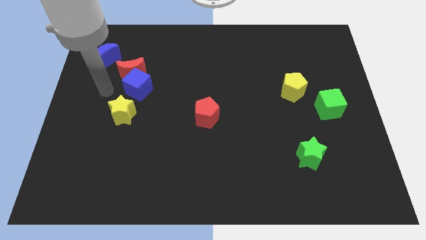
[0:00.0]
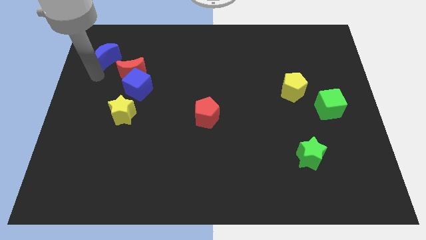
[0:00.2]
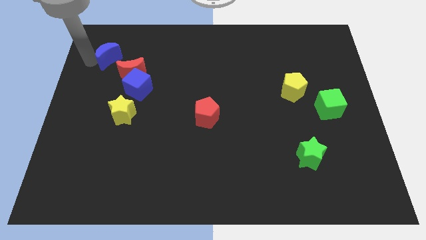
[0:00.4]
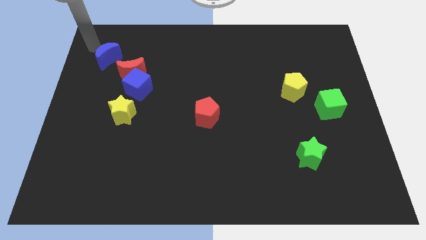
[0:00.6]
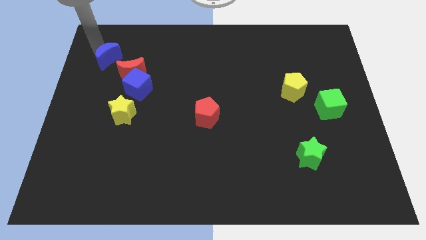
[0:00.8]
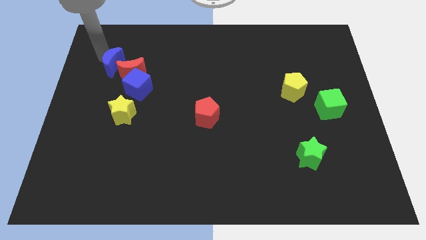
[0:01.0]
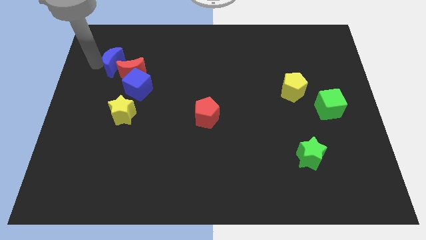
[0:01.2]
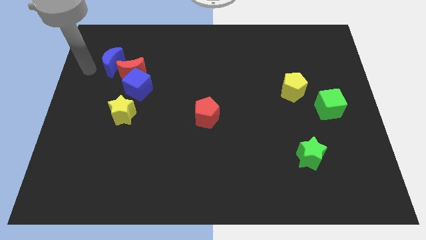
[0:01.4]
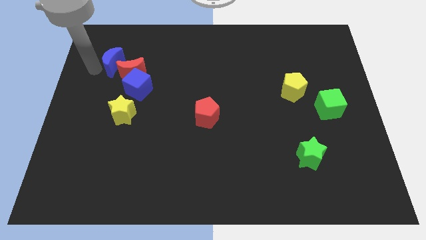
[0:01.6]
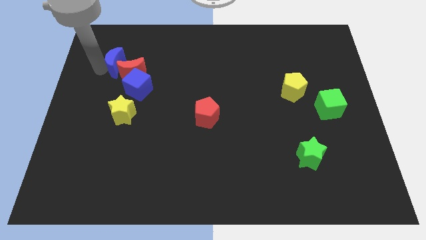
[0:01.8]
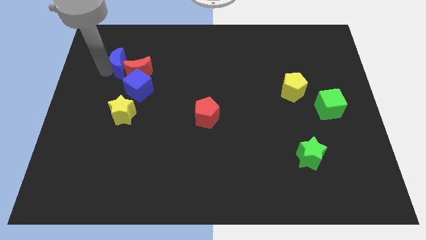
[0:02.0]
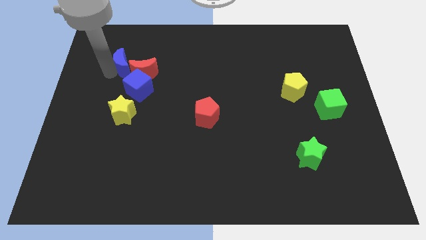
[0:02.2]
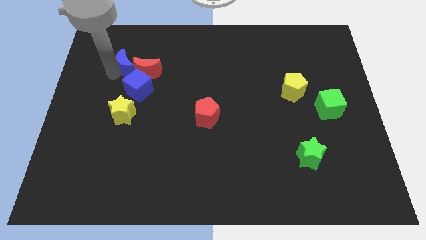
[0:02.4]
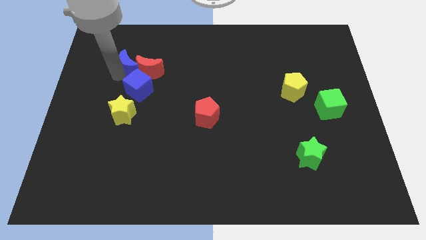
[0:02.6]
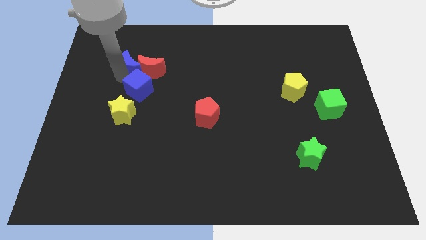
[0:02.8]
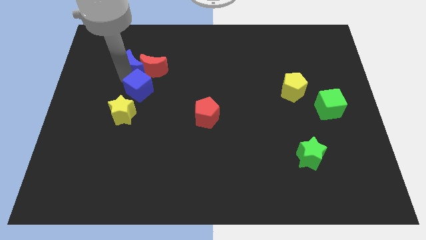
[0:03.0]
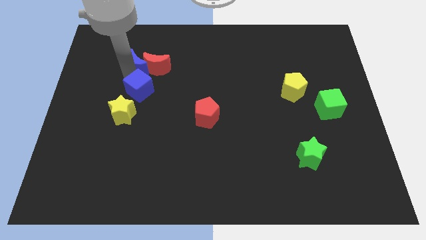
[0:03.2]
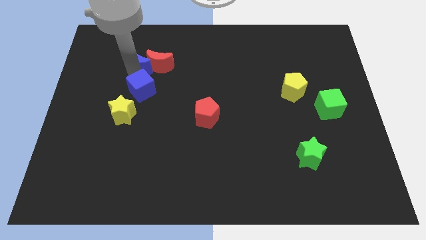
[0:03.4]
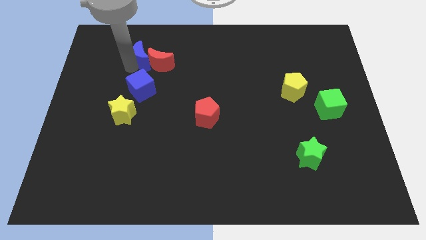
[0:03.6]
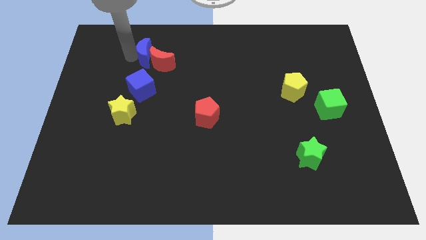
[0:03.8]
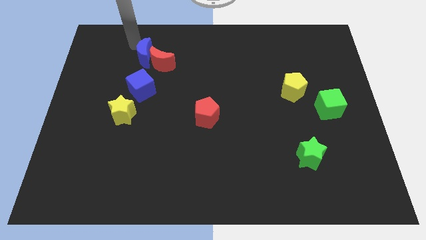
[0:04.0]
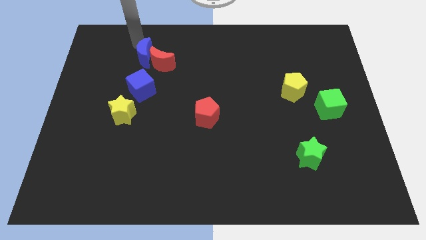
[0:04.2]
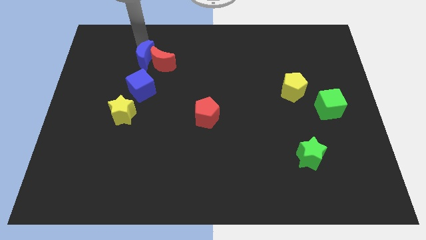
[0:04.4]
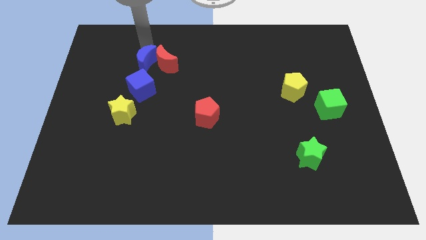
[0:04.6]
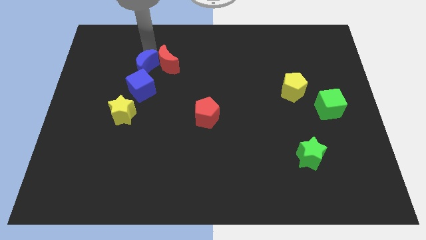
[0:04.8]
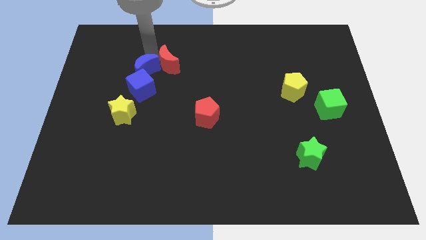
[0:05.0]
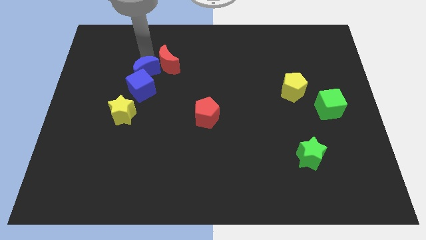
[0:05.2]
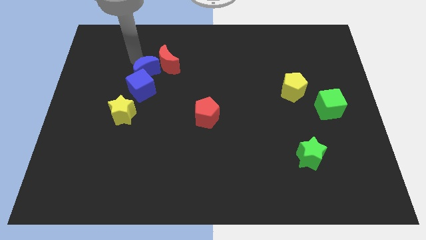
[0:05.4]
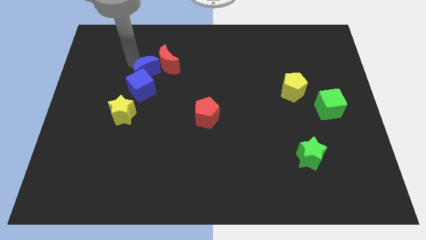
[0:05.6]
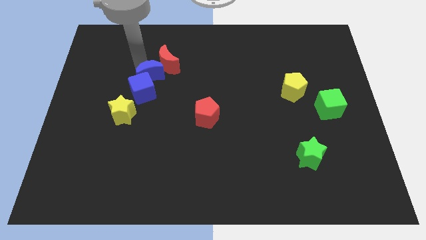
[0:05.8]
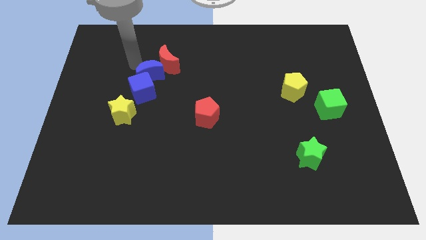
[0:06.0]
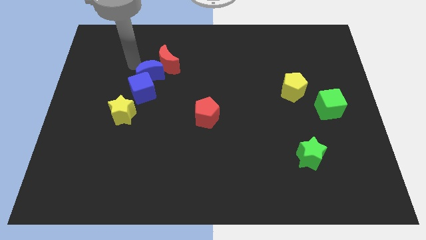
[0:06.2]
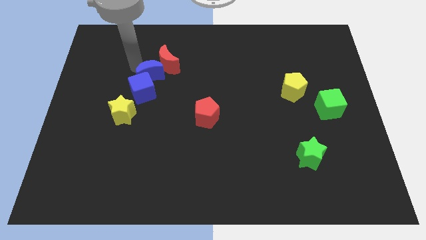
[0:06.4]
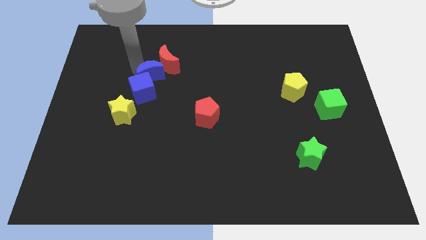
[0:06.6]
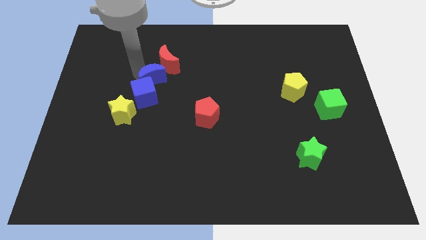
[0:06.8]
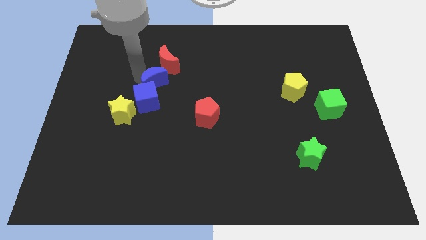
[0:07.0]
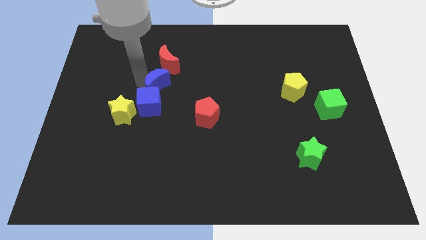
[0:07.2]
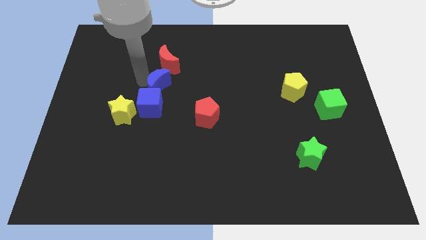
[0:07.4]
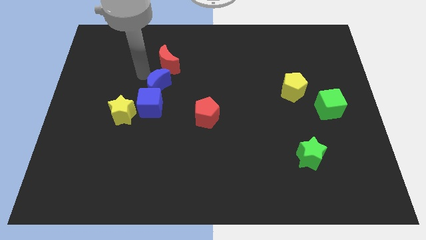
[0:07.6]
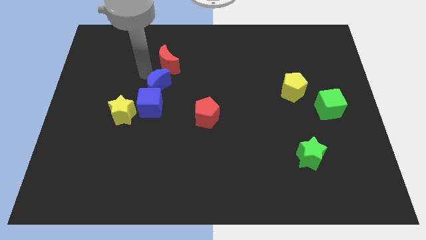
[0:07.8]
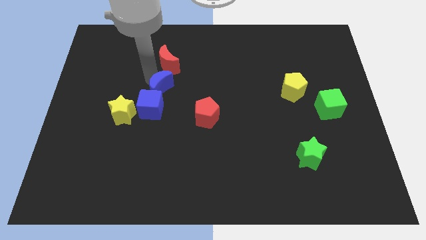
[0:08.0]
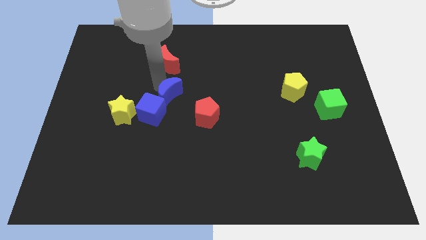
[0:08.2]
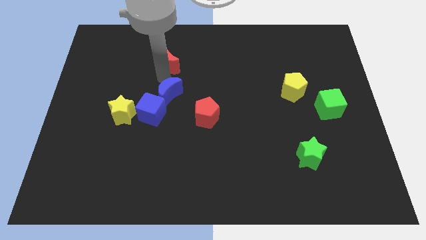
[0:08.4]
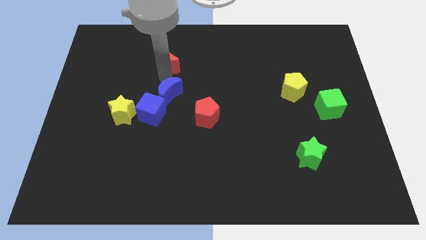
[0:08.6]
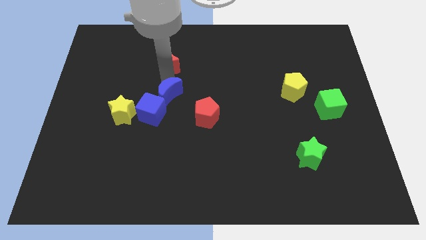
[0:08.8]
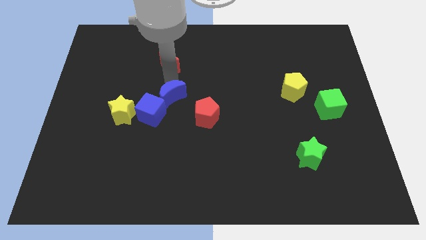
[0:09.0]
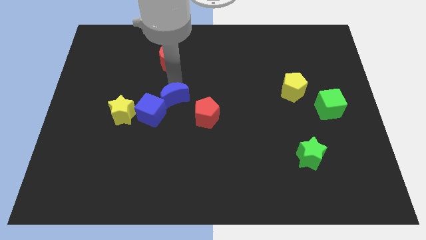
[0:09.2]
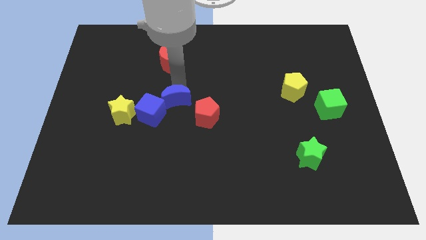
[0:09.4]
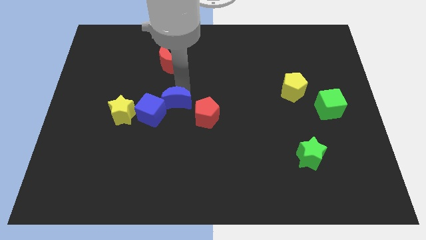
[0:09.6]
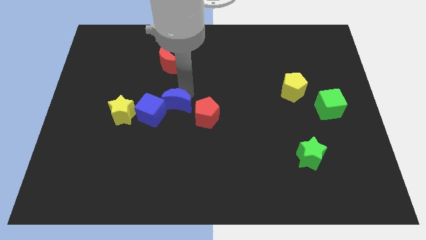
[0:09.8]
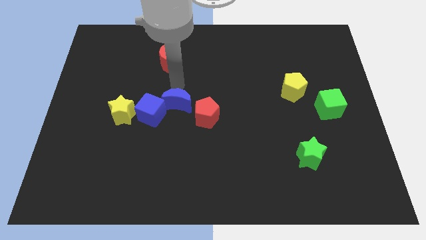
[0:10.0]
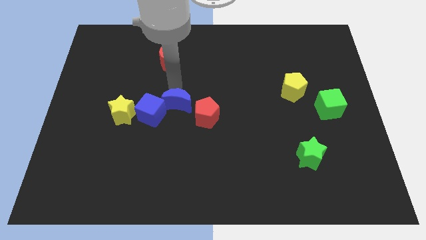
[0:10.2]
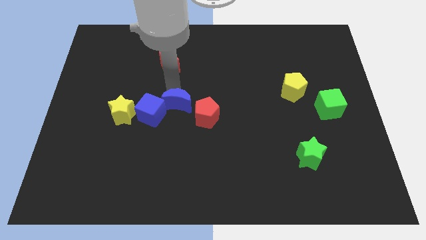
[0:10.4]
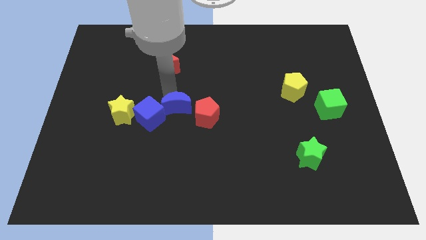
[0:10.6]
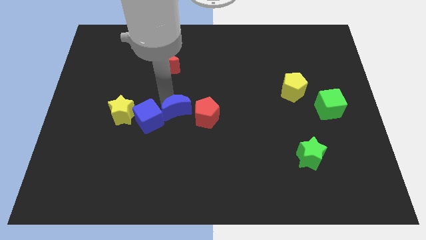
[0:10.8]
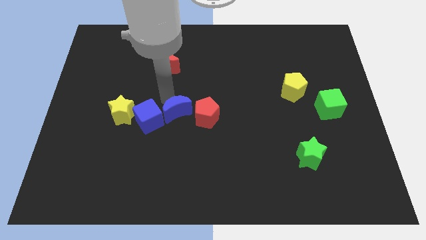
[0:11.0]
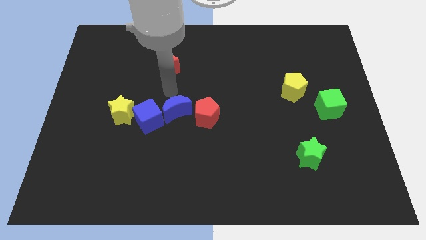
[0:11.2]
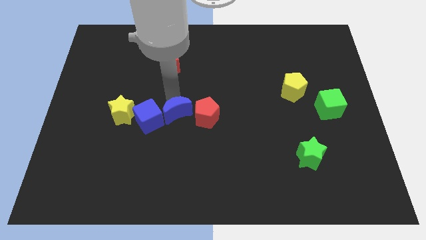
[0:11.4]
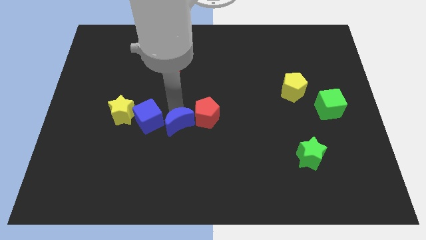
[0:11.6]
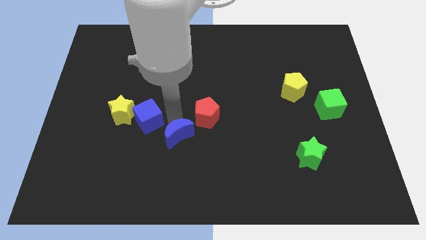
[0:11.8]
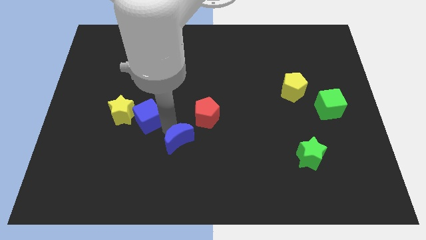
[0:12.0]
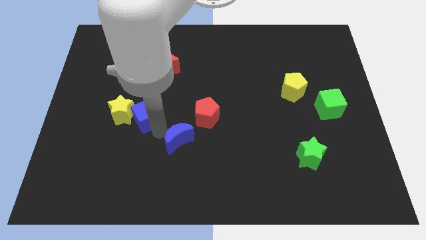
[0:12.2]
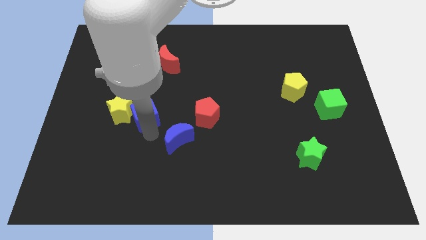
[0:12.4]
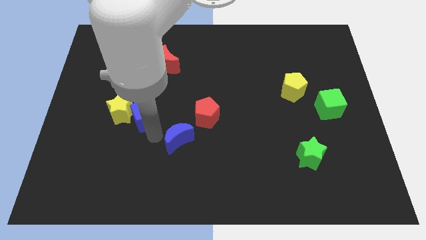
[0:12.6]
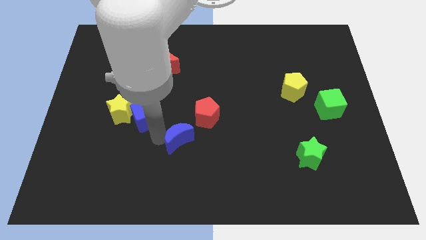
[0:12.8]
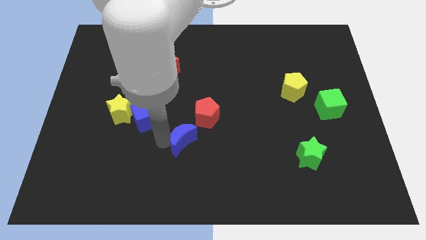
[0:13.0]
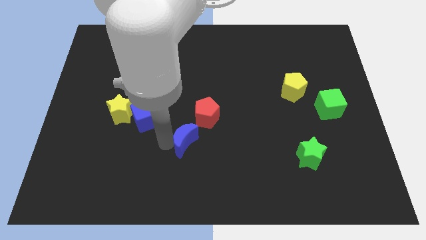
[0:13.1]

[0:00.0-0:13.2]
push the blue moon to the bottom side of the red pentagon

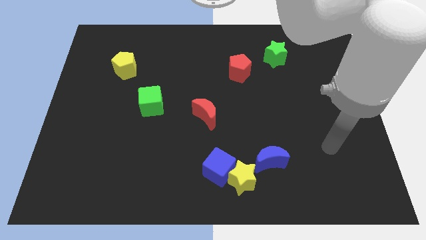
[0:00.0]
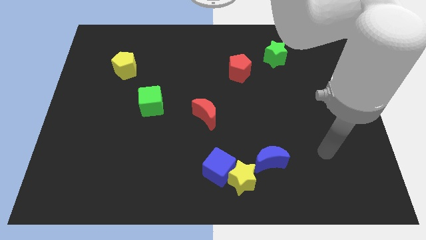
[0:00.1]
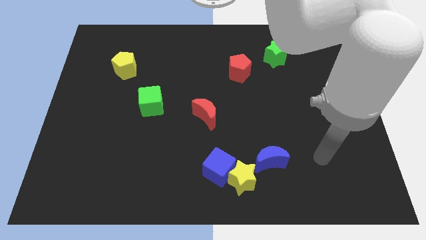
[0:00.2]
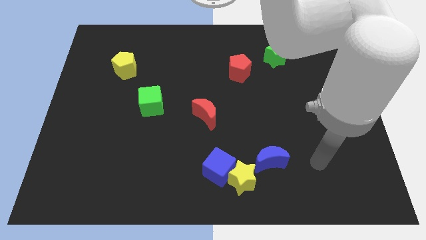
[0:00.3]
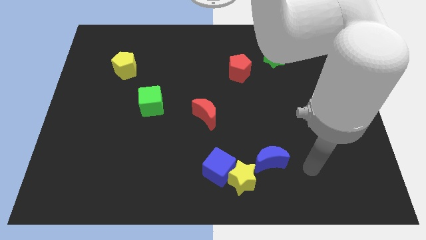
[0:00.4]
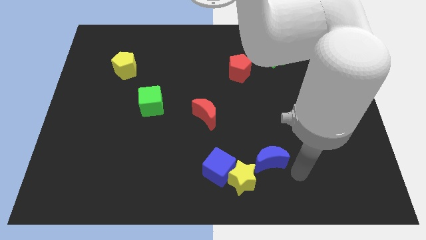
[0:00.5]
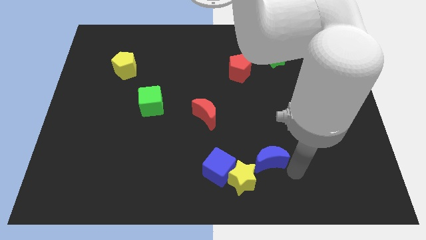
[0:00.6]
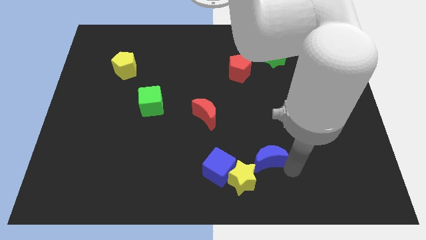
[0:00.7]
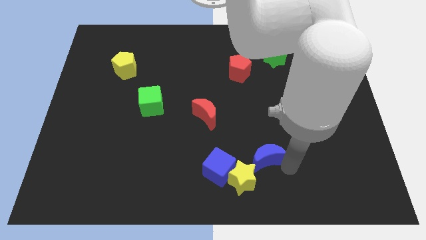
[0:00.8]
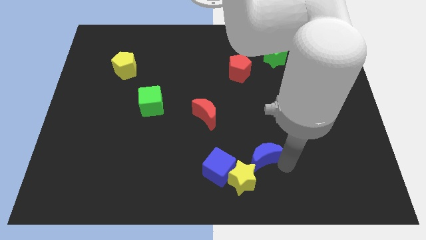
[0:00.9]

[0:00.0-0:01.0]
push the blue moon to the top right side of the blue cube
